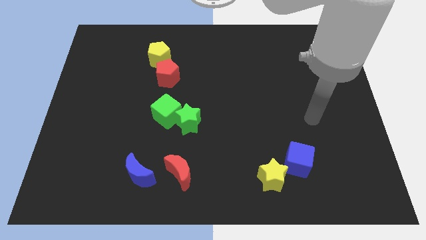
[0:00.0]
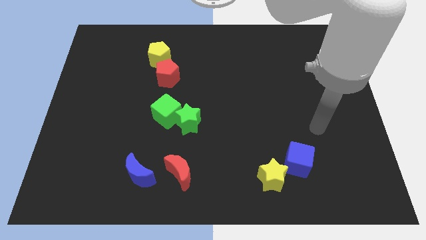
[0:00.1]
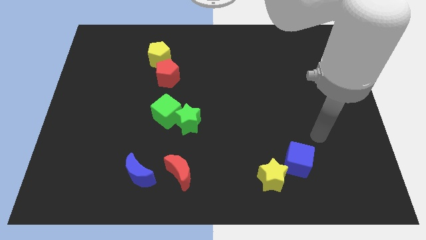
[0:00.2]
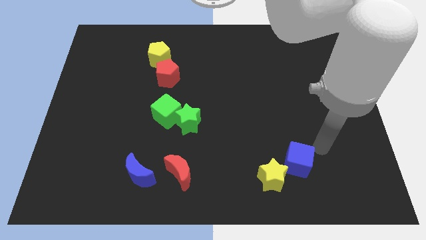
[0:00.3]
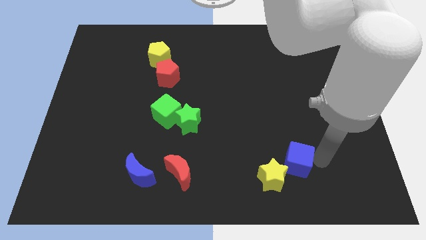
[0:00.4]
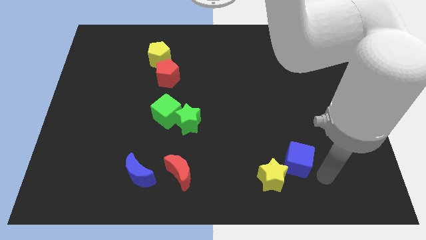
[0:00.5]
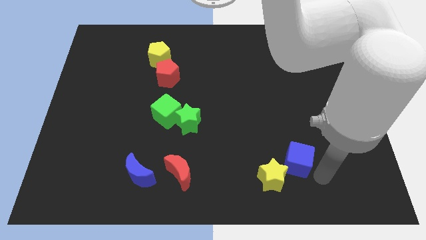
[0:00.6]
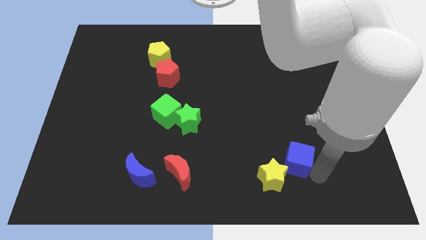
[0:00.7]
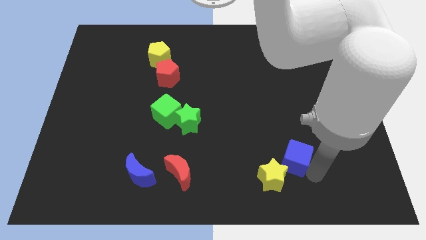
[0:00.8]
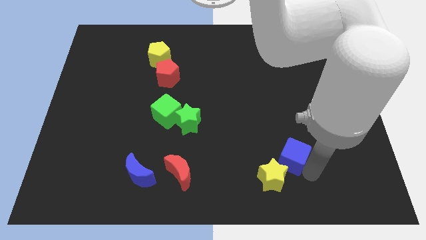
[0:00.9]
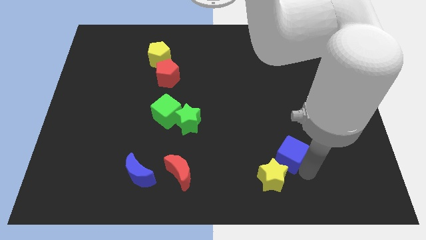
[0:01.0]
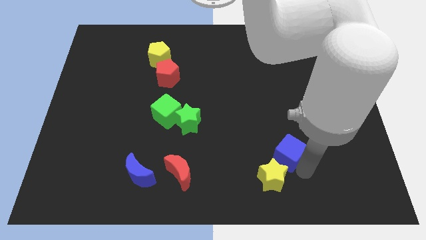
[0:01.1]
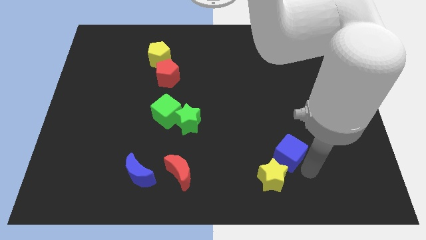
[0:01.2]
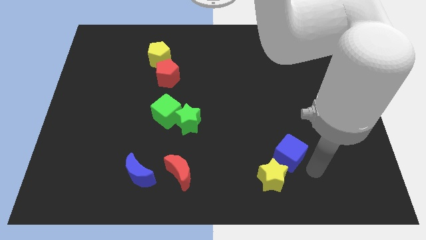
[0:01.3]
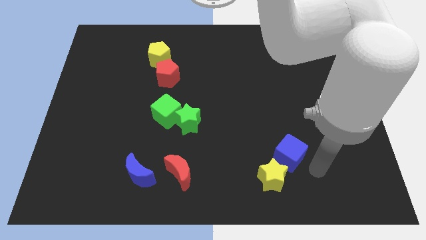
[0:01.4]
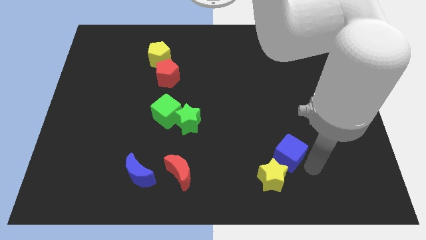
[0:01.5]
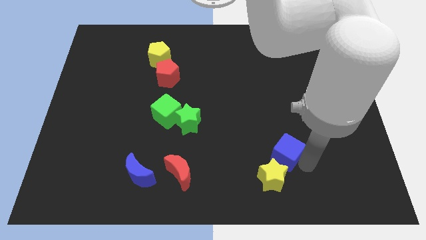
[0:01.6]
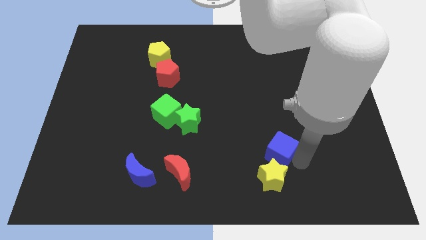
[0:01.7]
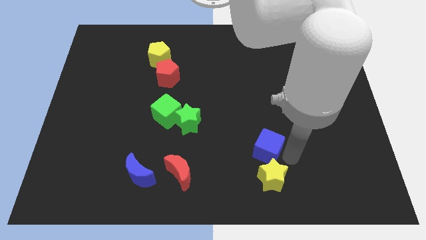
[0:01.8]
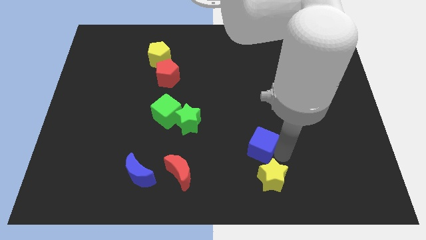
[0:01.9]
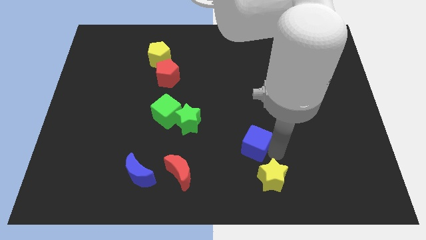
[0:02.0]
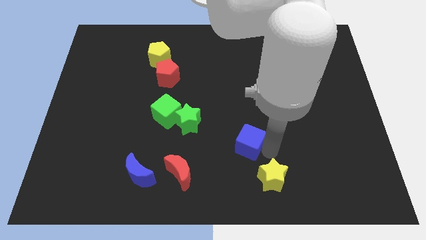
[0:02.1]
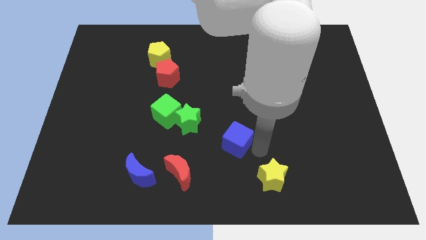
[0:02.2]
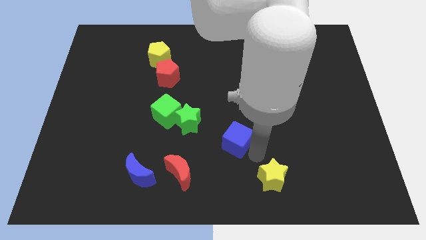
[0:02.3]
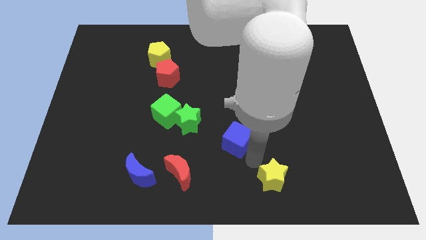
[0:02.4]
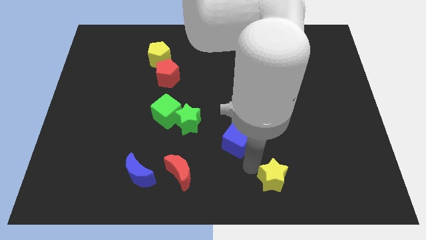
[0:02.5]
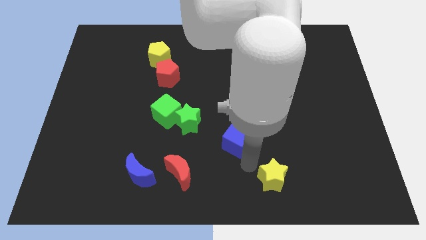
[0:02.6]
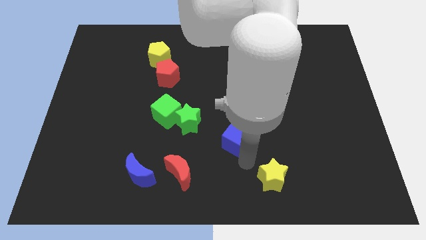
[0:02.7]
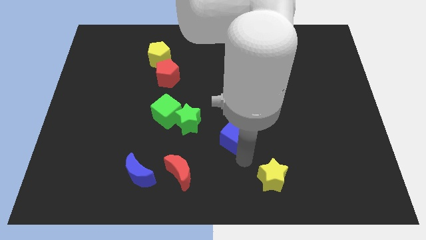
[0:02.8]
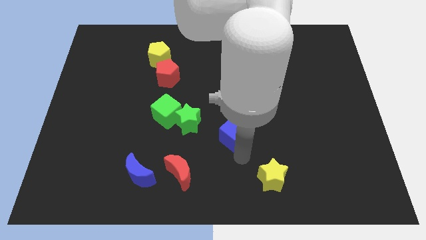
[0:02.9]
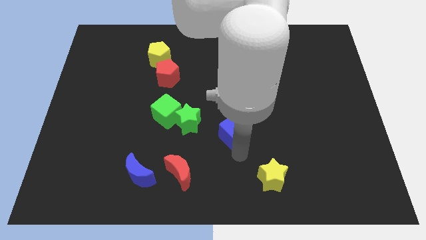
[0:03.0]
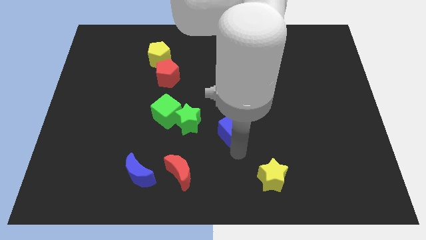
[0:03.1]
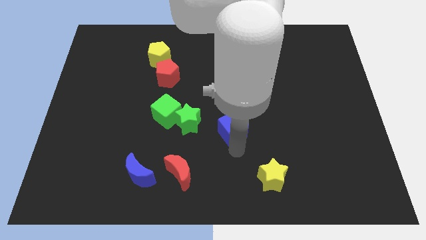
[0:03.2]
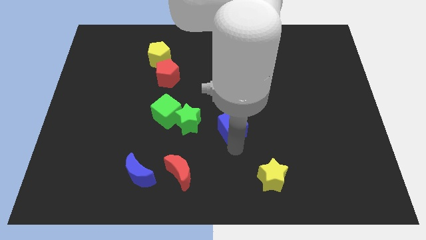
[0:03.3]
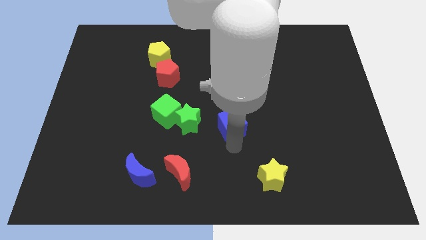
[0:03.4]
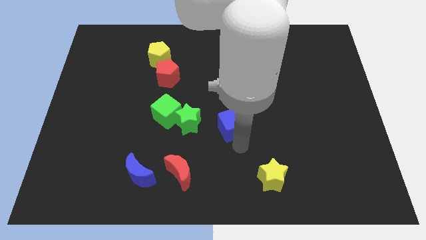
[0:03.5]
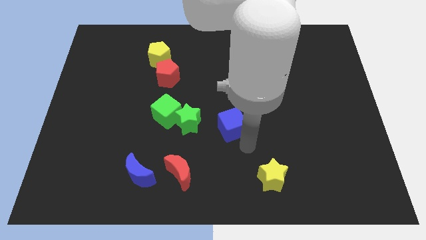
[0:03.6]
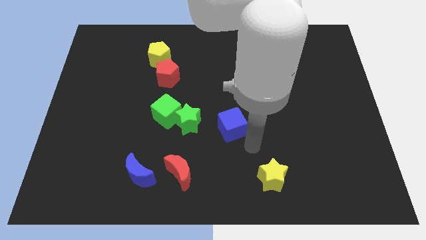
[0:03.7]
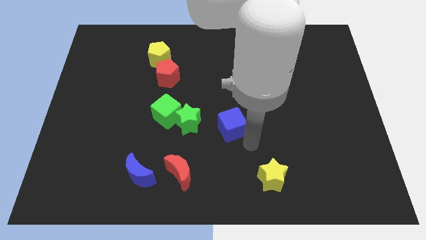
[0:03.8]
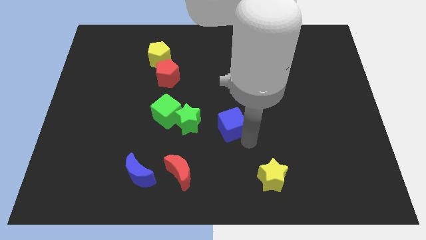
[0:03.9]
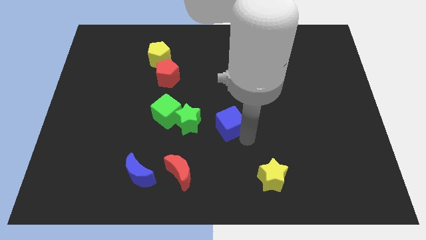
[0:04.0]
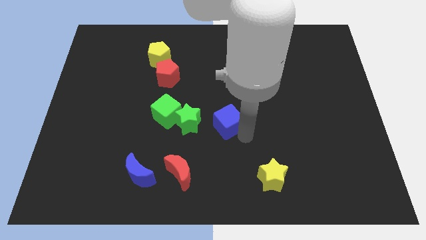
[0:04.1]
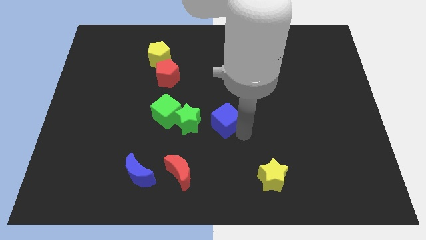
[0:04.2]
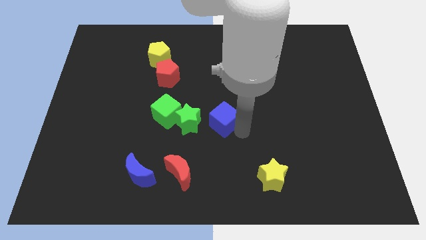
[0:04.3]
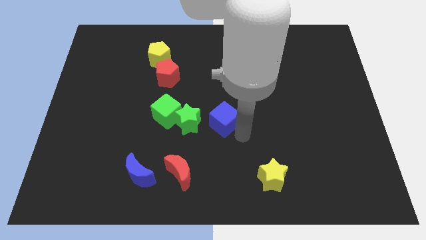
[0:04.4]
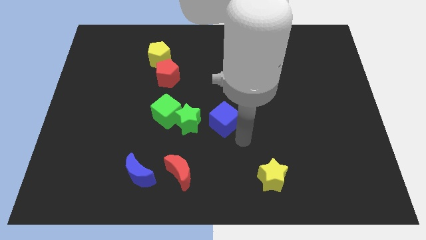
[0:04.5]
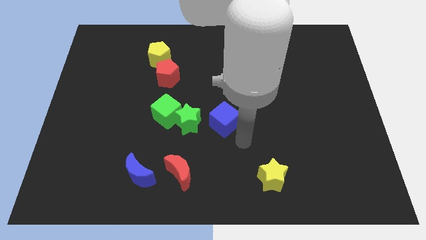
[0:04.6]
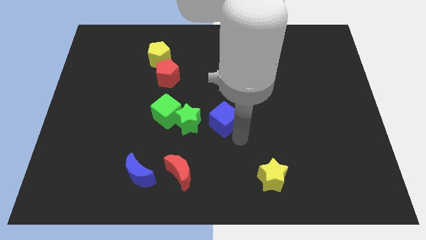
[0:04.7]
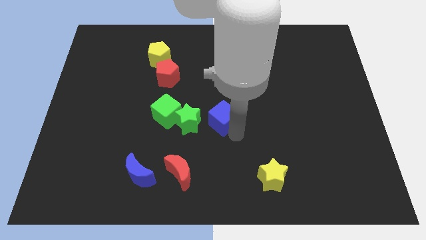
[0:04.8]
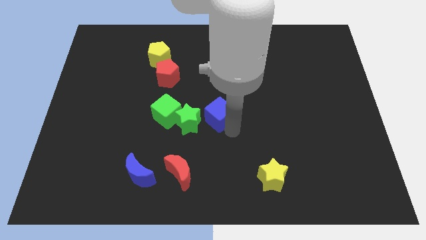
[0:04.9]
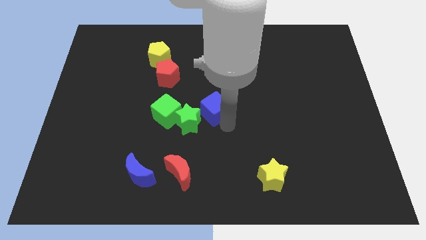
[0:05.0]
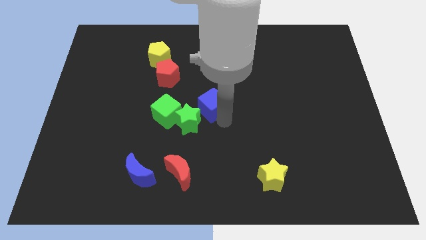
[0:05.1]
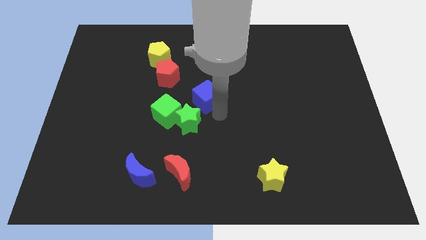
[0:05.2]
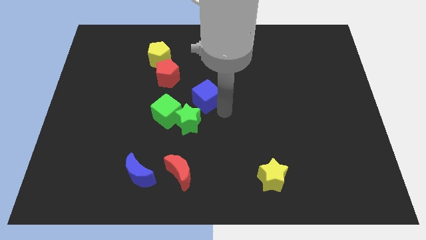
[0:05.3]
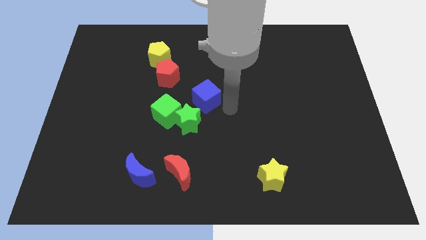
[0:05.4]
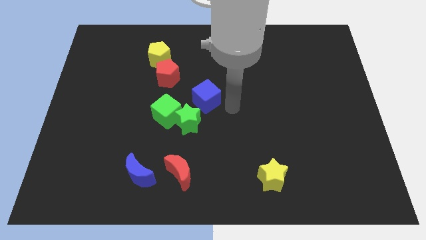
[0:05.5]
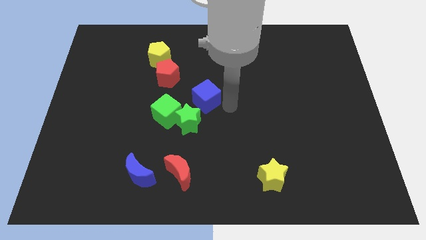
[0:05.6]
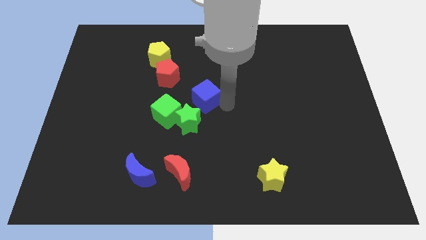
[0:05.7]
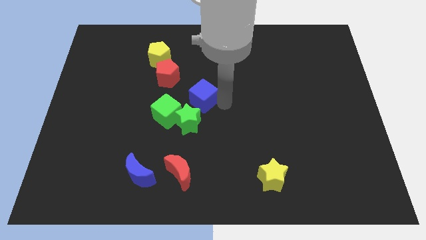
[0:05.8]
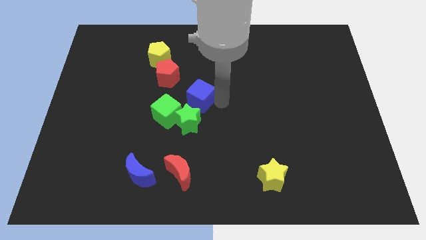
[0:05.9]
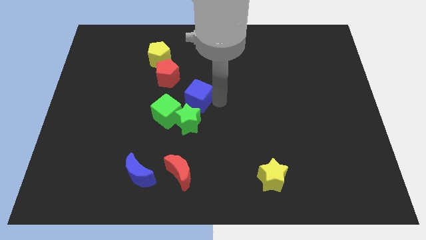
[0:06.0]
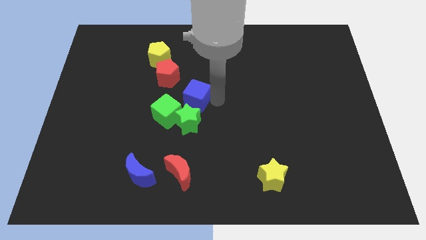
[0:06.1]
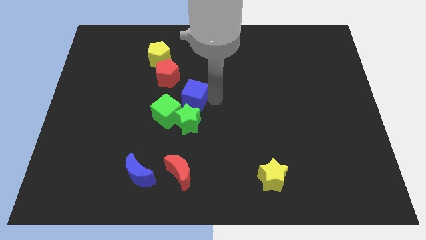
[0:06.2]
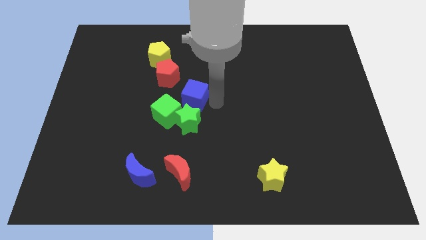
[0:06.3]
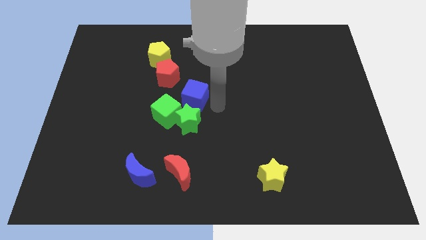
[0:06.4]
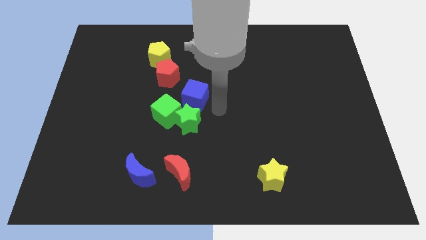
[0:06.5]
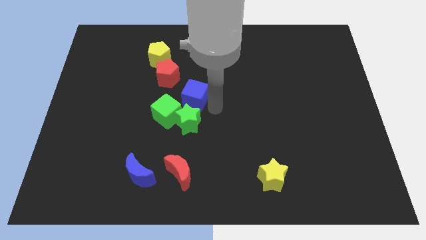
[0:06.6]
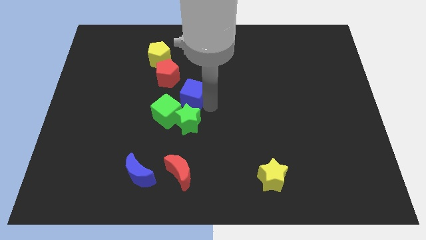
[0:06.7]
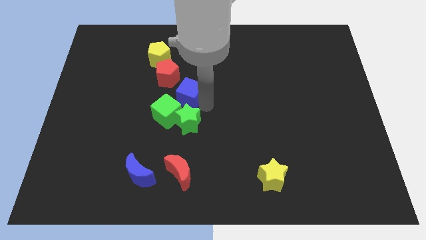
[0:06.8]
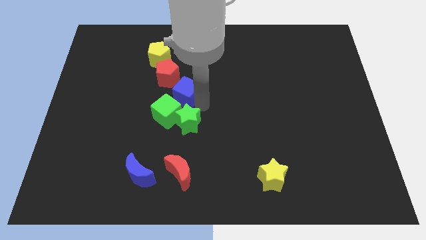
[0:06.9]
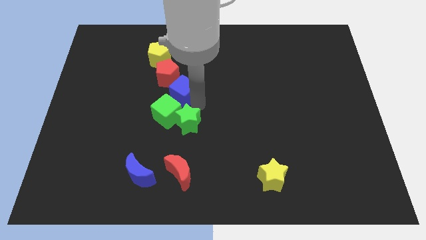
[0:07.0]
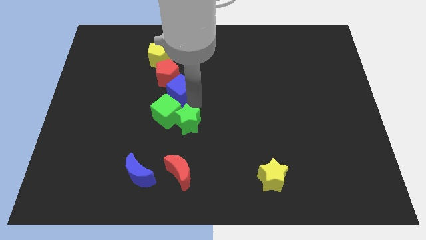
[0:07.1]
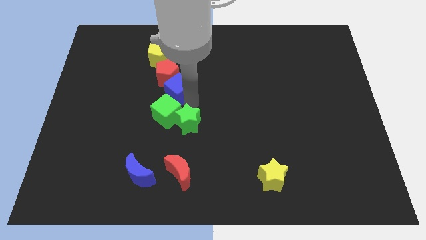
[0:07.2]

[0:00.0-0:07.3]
push the blue cube towards the red pentagon
